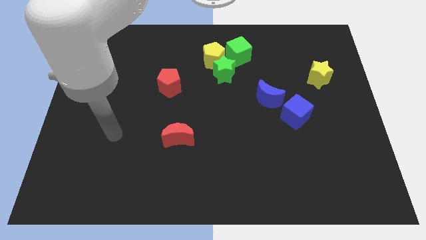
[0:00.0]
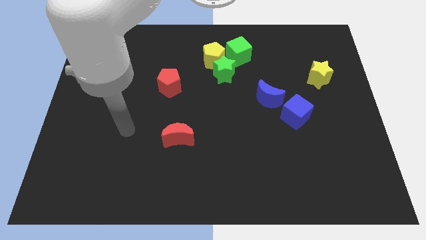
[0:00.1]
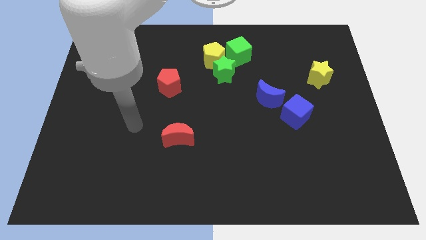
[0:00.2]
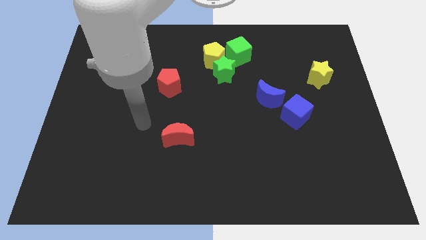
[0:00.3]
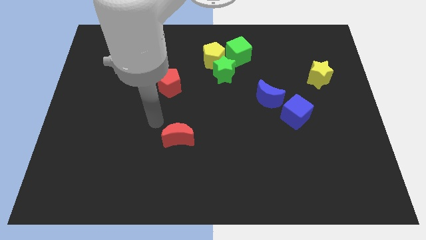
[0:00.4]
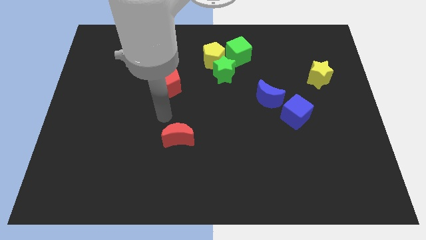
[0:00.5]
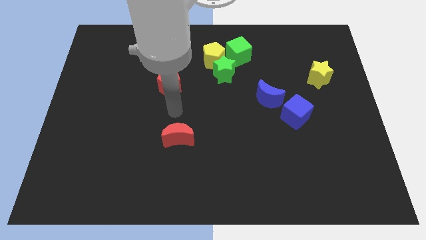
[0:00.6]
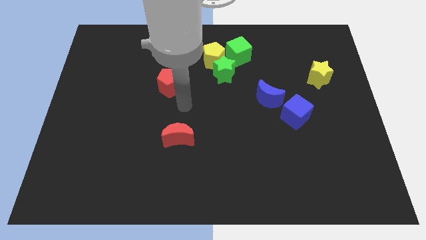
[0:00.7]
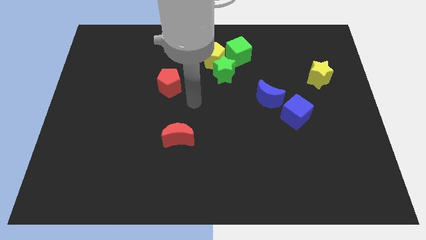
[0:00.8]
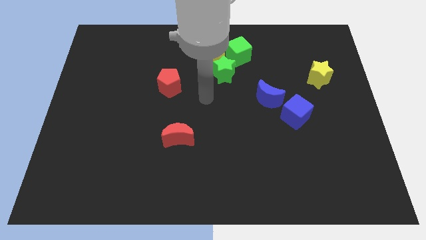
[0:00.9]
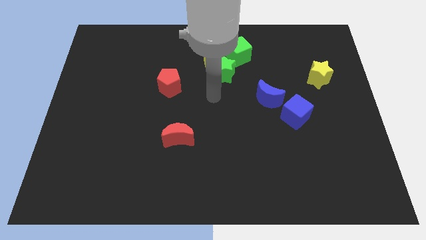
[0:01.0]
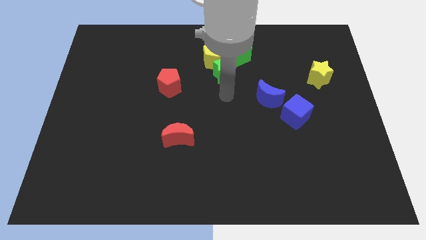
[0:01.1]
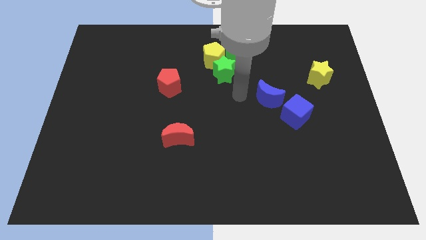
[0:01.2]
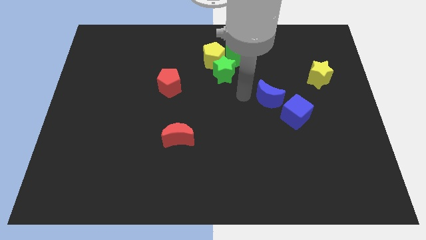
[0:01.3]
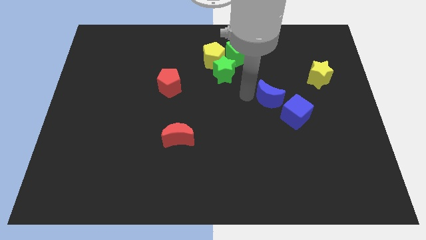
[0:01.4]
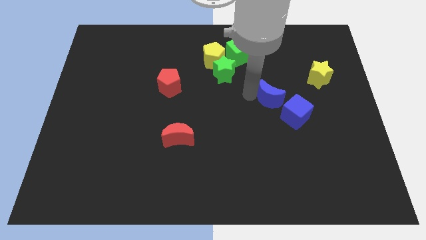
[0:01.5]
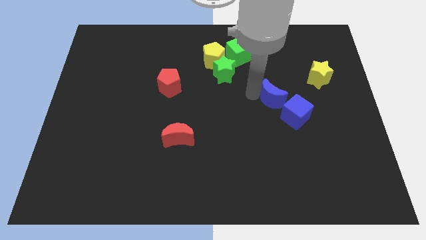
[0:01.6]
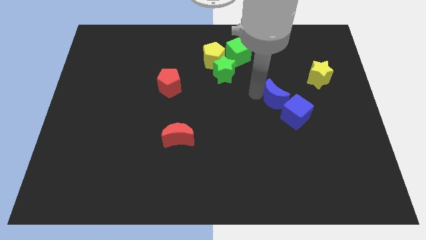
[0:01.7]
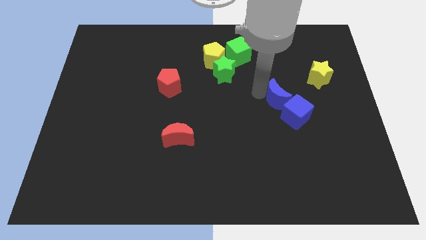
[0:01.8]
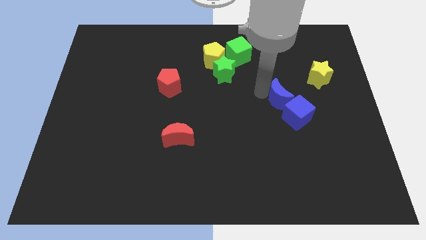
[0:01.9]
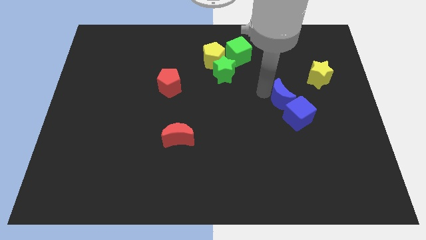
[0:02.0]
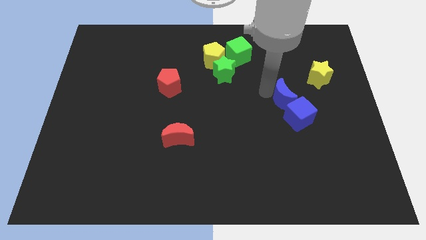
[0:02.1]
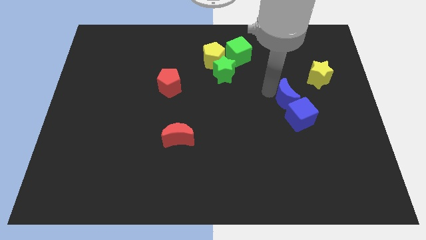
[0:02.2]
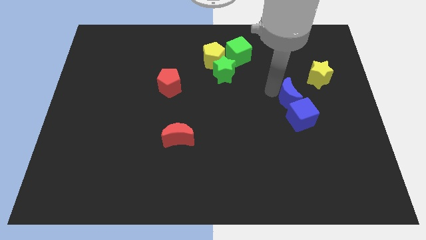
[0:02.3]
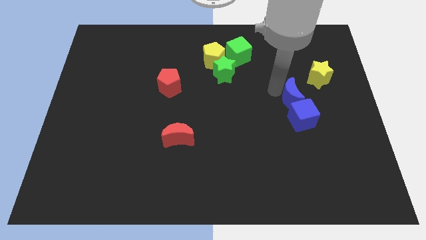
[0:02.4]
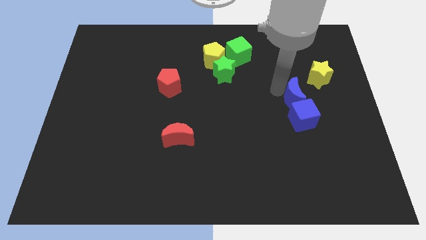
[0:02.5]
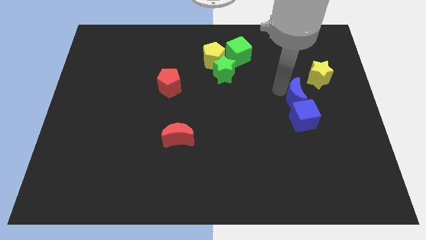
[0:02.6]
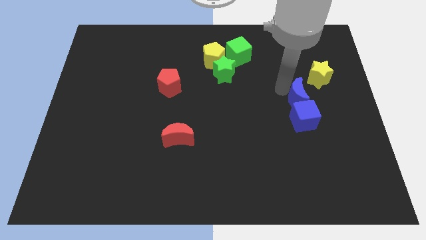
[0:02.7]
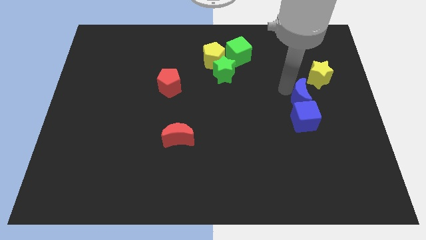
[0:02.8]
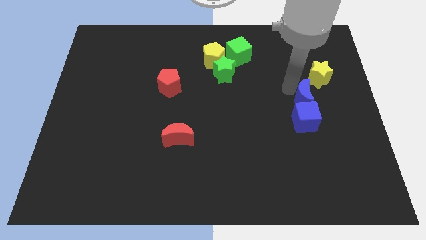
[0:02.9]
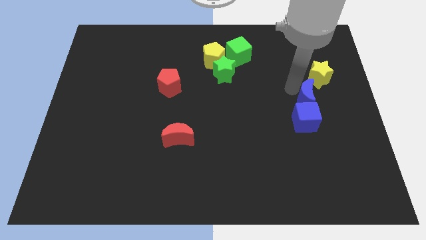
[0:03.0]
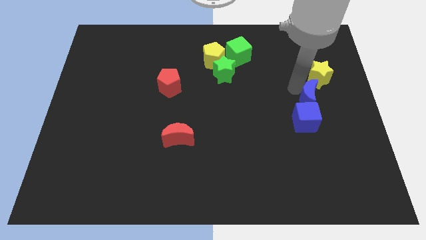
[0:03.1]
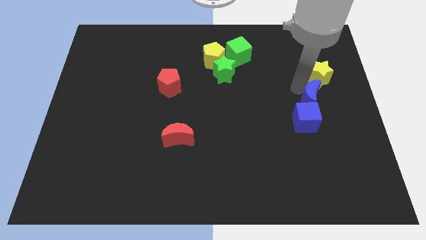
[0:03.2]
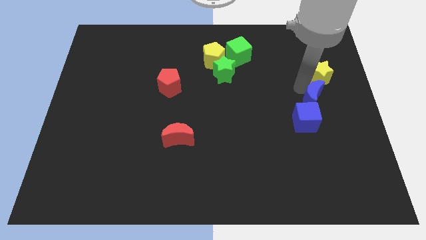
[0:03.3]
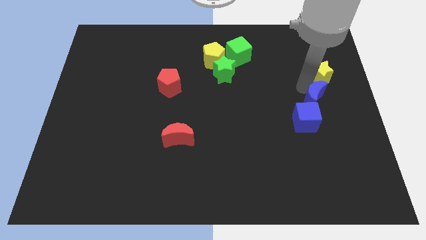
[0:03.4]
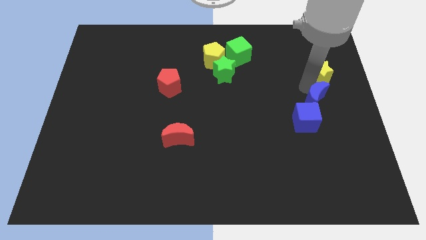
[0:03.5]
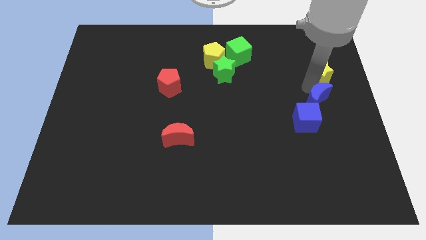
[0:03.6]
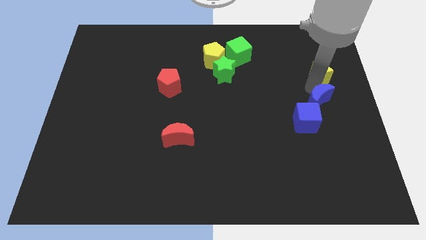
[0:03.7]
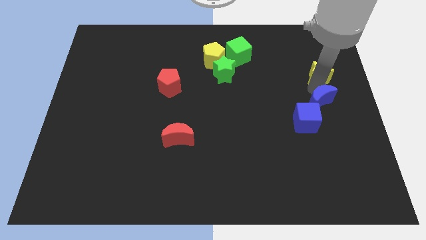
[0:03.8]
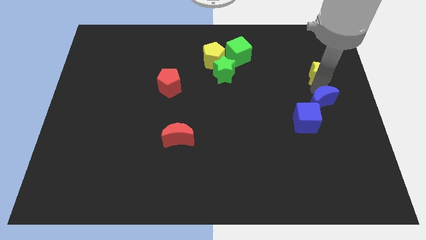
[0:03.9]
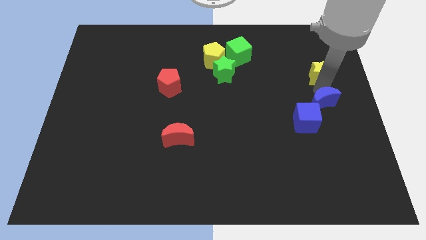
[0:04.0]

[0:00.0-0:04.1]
slightly slide the blue moon diagonally downwards and to the right

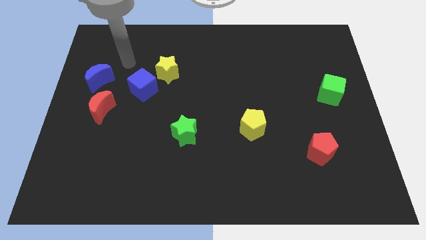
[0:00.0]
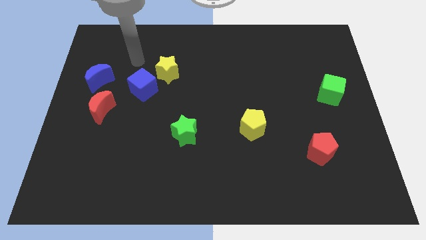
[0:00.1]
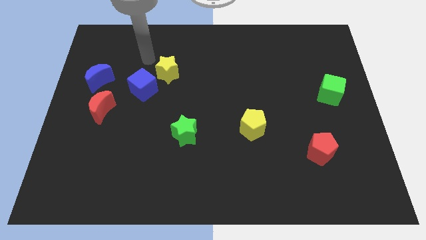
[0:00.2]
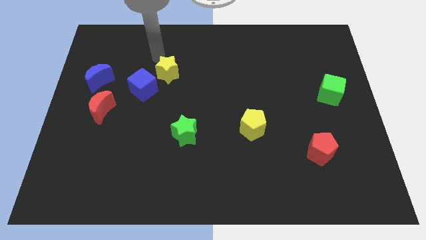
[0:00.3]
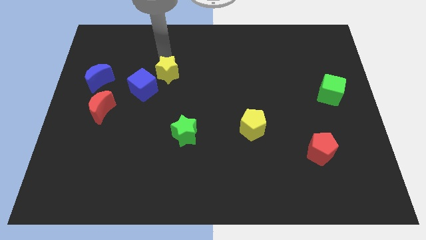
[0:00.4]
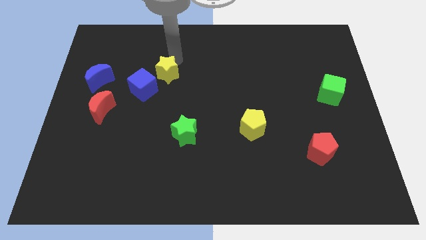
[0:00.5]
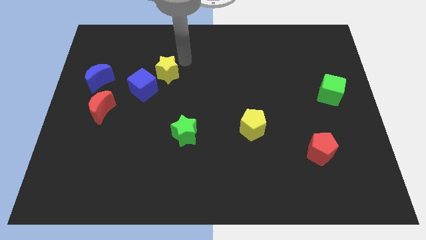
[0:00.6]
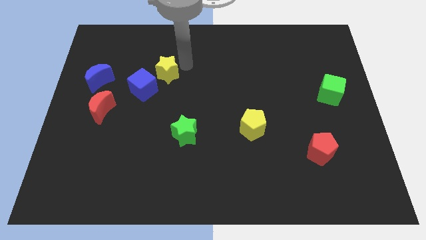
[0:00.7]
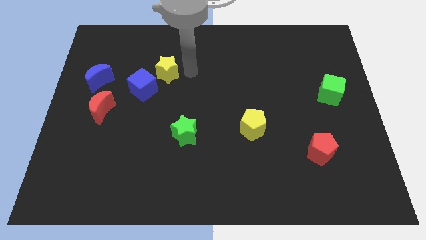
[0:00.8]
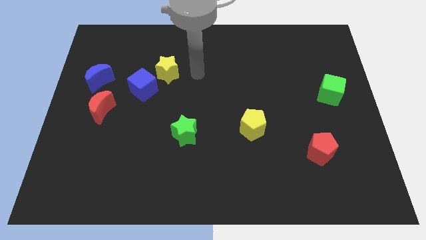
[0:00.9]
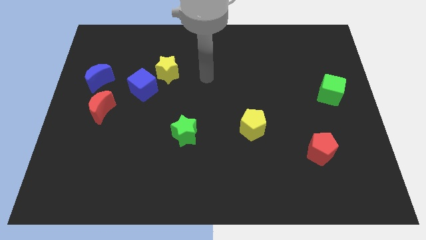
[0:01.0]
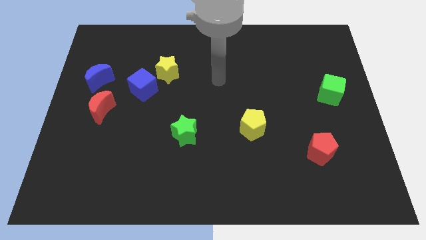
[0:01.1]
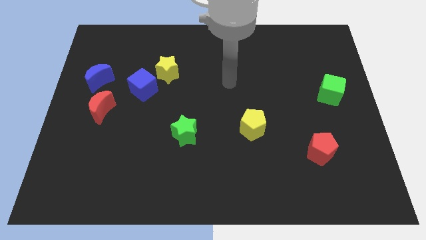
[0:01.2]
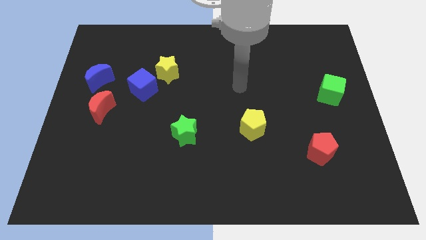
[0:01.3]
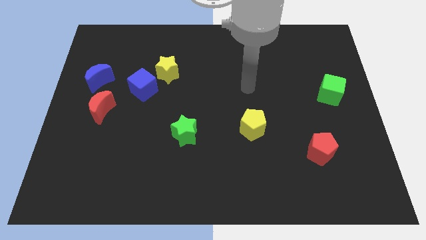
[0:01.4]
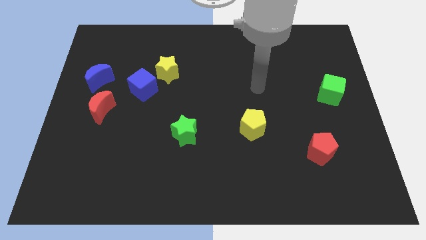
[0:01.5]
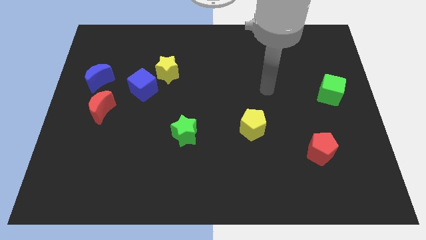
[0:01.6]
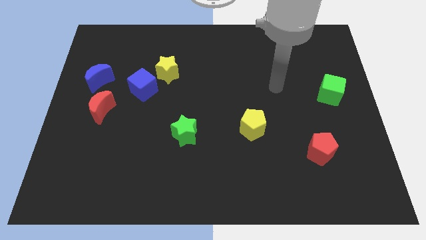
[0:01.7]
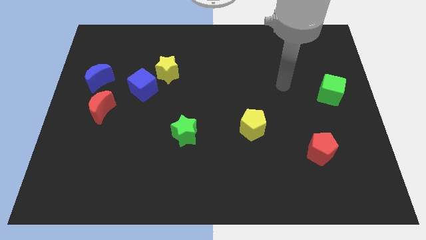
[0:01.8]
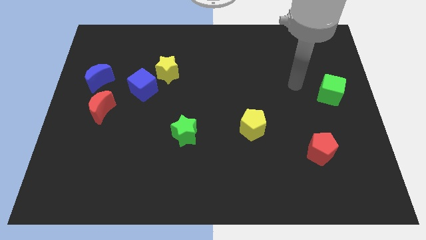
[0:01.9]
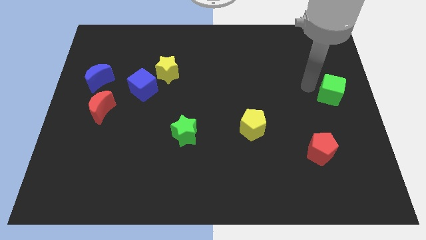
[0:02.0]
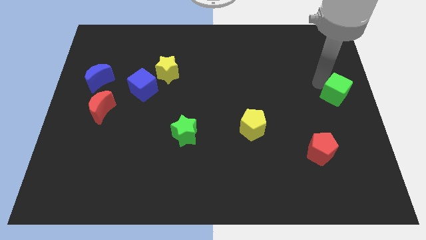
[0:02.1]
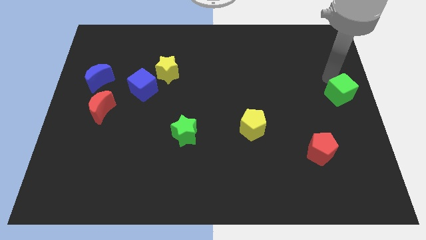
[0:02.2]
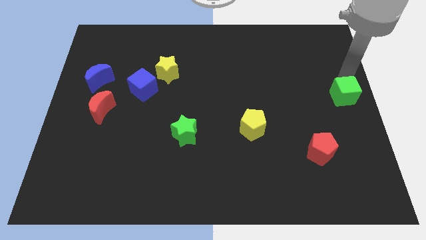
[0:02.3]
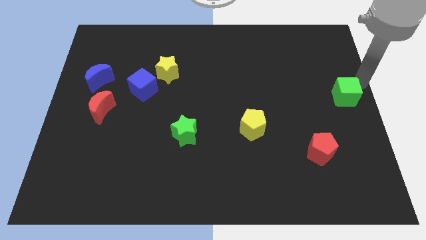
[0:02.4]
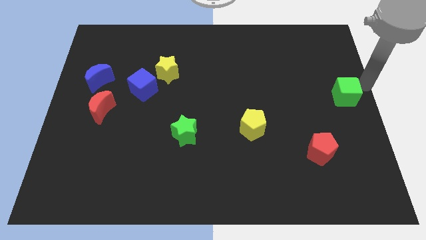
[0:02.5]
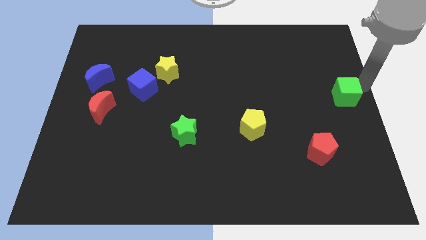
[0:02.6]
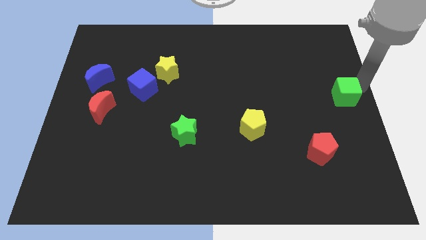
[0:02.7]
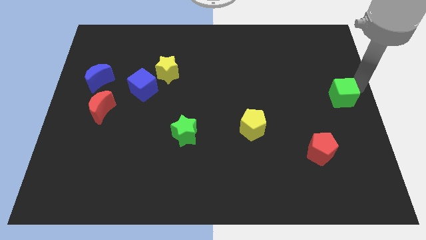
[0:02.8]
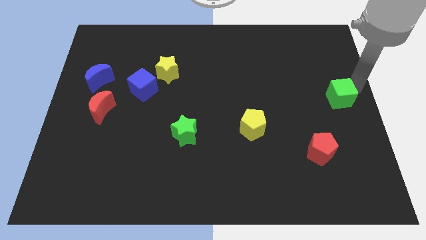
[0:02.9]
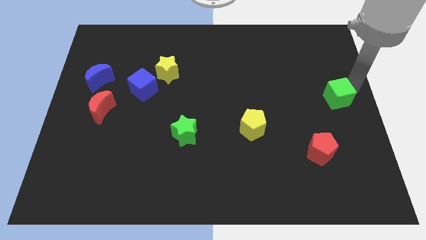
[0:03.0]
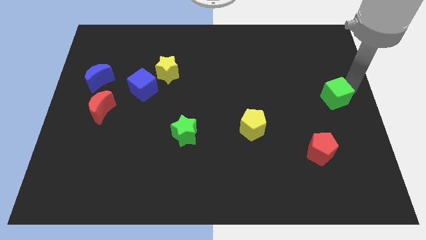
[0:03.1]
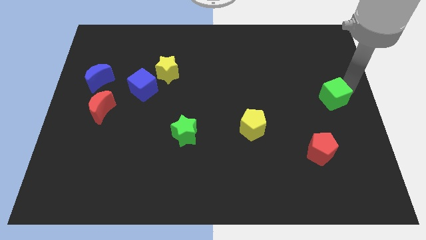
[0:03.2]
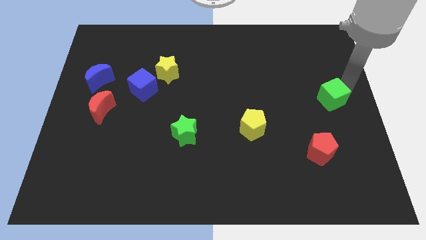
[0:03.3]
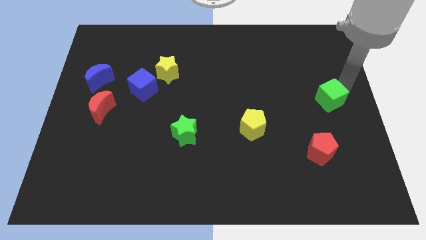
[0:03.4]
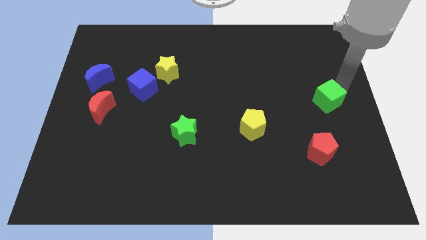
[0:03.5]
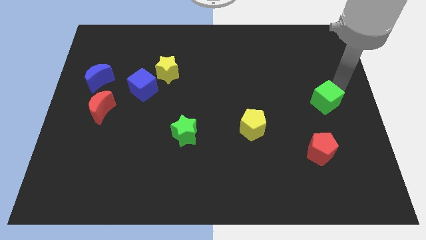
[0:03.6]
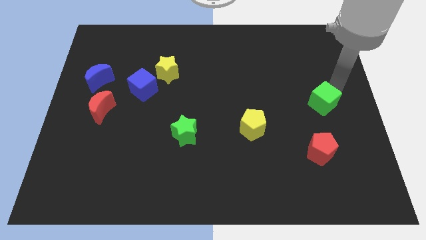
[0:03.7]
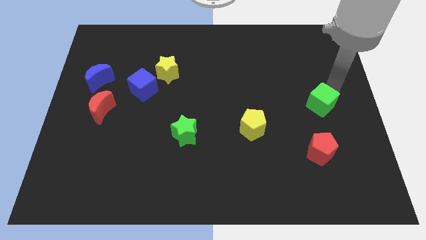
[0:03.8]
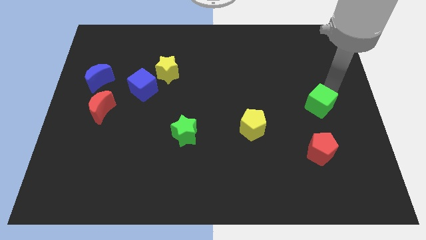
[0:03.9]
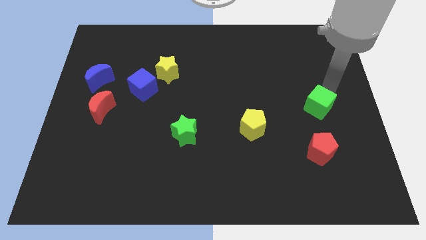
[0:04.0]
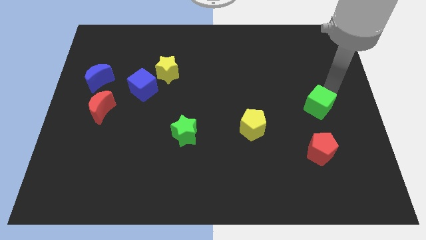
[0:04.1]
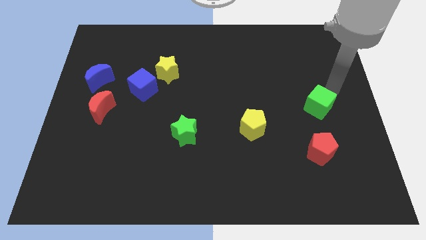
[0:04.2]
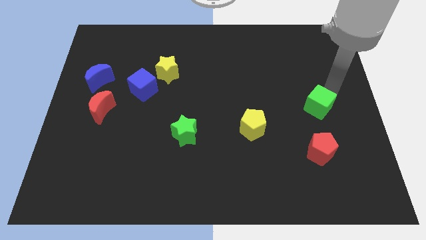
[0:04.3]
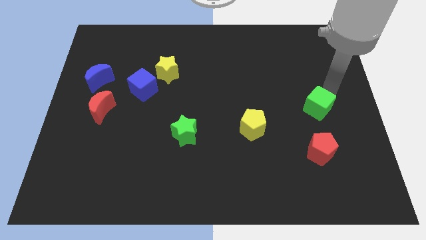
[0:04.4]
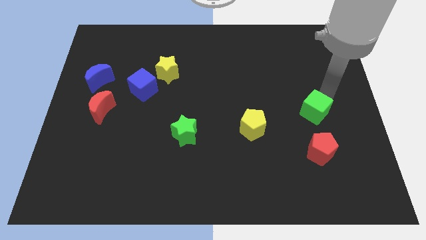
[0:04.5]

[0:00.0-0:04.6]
move the green cube slightly down and left
